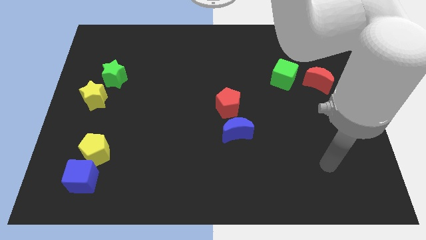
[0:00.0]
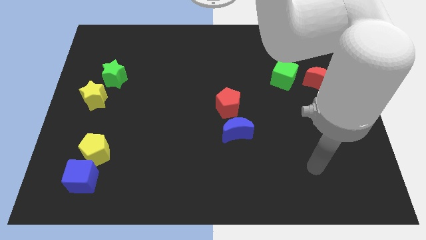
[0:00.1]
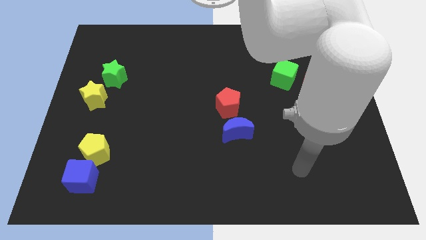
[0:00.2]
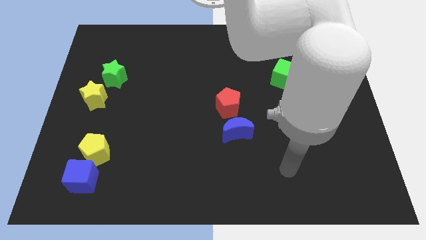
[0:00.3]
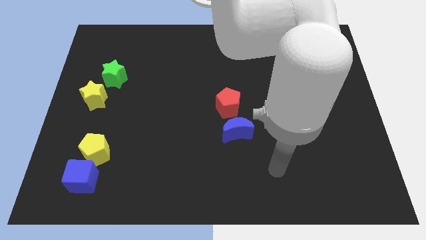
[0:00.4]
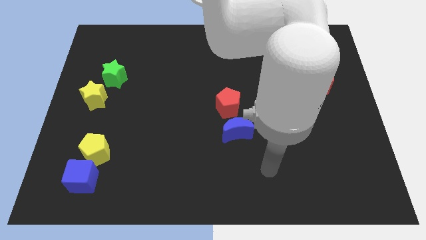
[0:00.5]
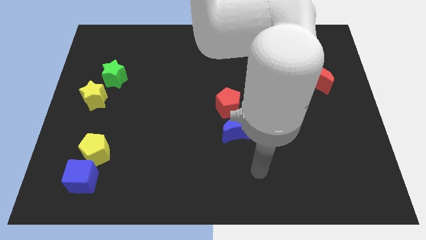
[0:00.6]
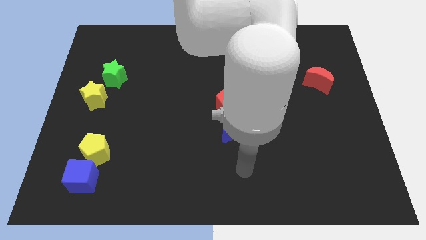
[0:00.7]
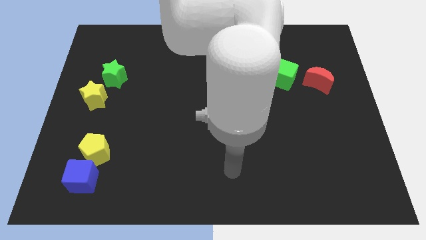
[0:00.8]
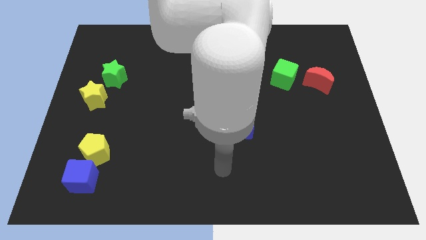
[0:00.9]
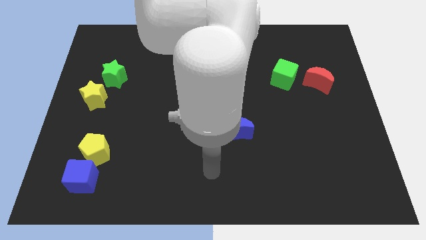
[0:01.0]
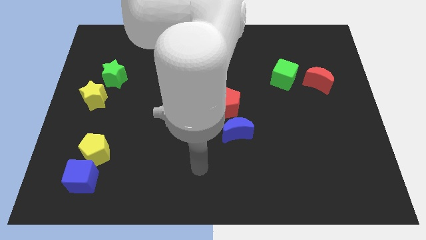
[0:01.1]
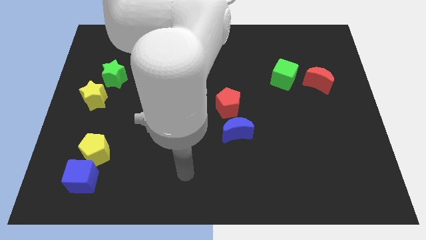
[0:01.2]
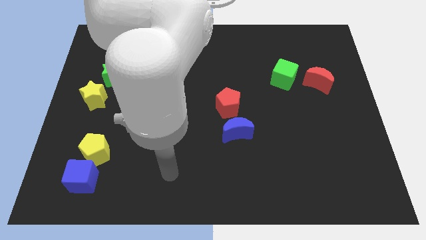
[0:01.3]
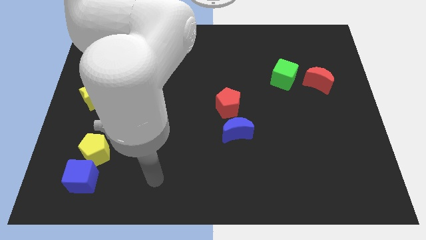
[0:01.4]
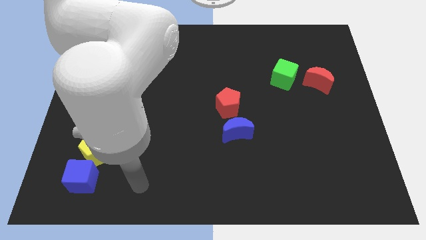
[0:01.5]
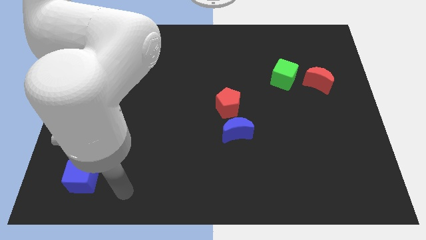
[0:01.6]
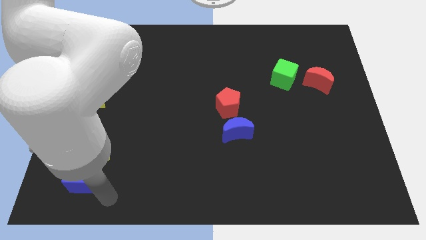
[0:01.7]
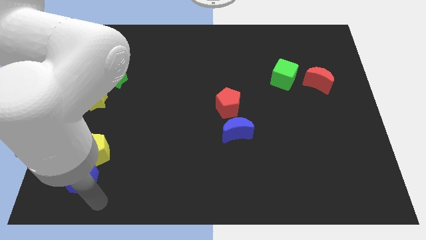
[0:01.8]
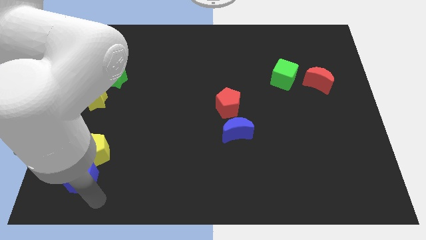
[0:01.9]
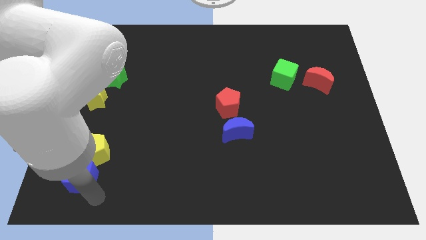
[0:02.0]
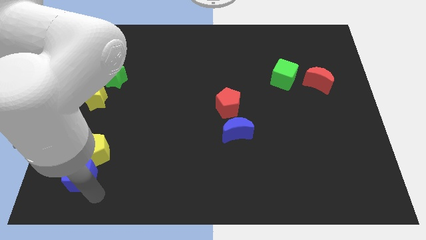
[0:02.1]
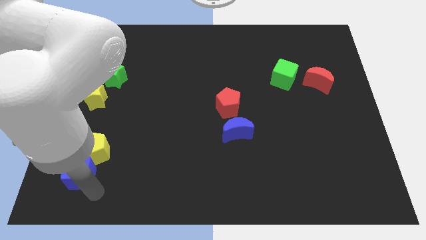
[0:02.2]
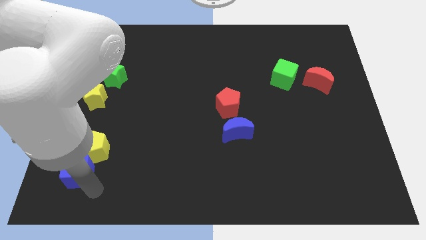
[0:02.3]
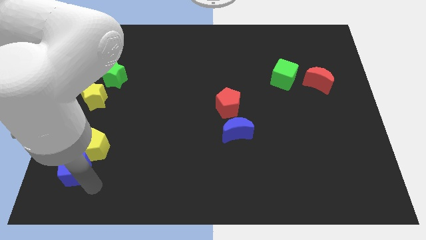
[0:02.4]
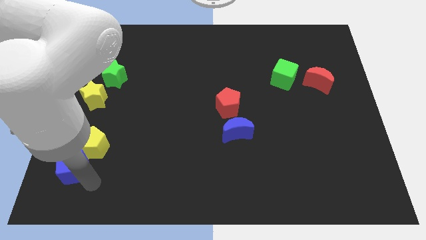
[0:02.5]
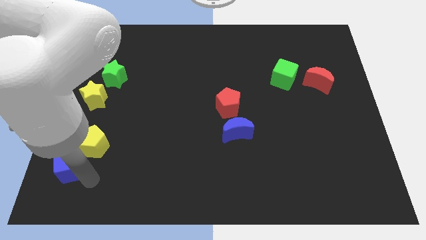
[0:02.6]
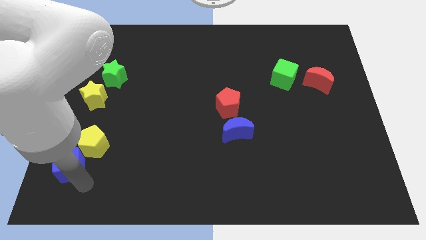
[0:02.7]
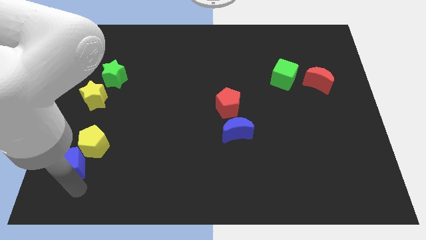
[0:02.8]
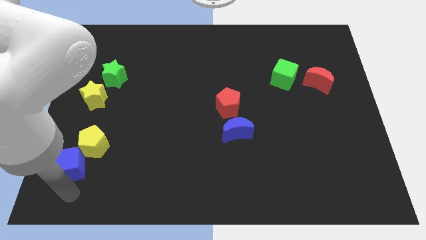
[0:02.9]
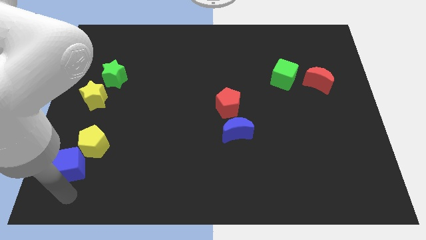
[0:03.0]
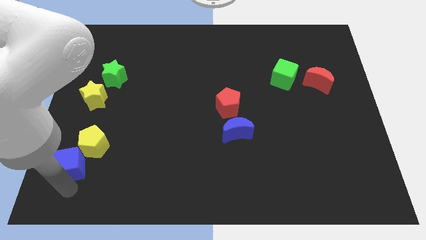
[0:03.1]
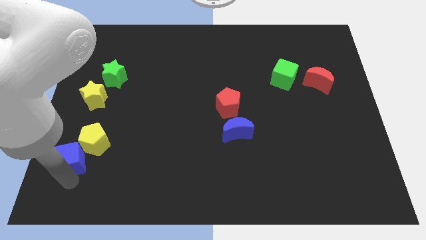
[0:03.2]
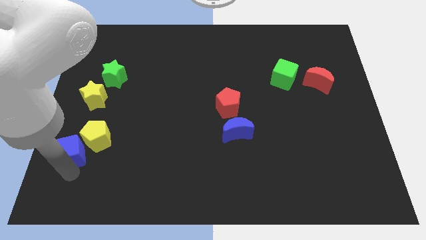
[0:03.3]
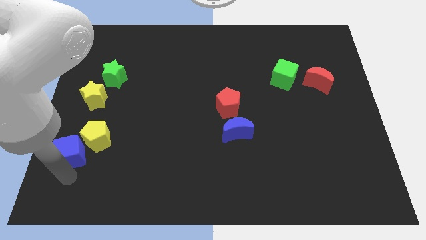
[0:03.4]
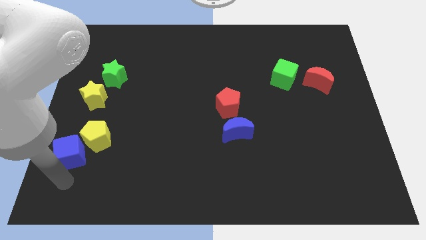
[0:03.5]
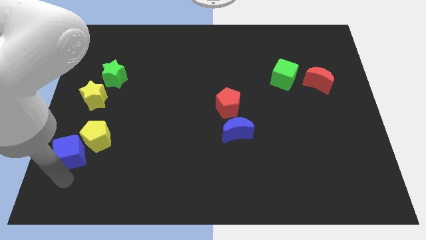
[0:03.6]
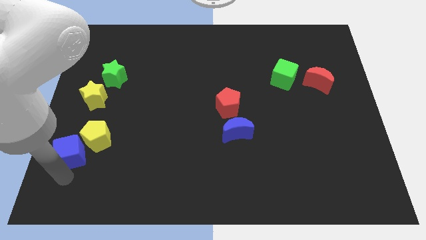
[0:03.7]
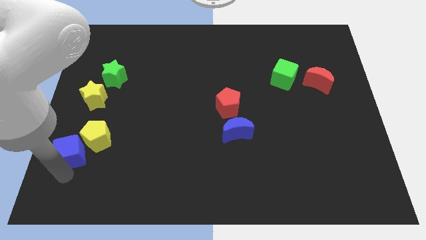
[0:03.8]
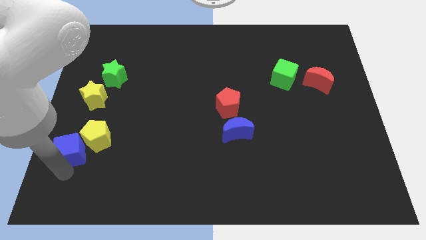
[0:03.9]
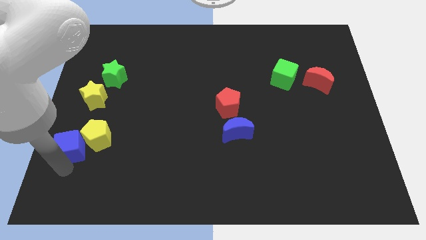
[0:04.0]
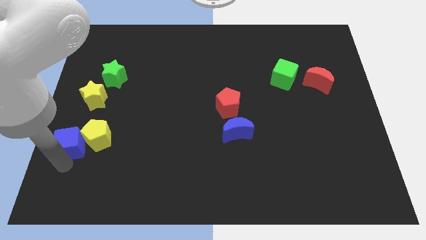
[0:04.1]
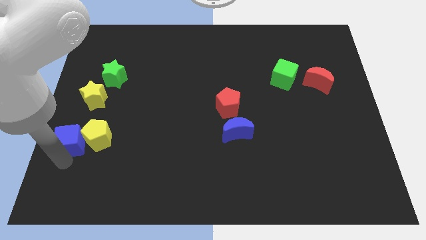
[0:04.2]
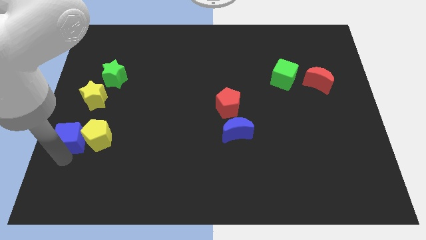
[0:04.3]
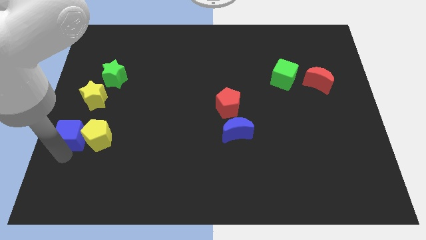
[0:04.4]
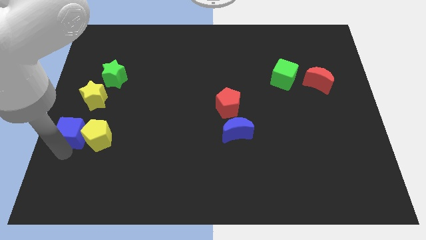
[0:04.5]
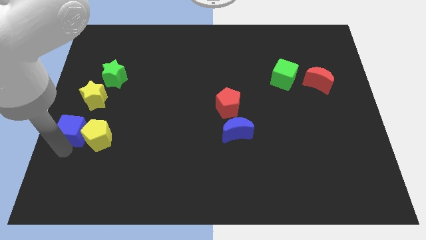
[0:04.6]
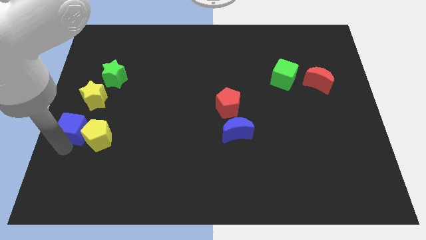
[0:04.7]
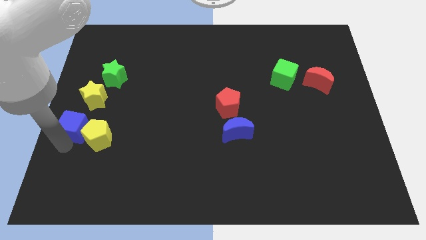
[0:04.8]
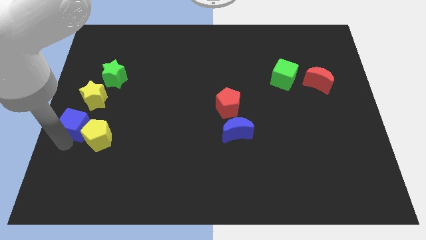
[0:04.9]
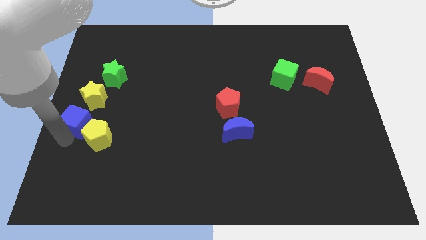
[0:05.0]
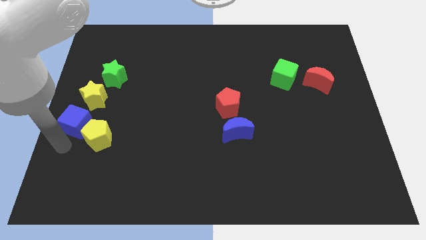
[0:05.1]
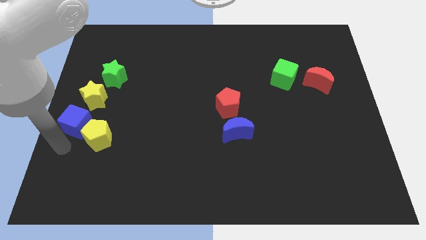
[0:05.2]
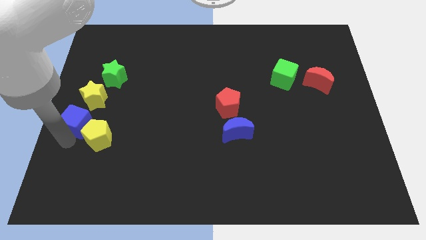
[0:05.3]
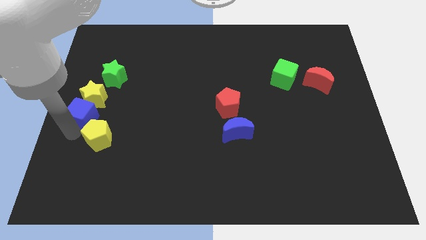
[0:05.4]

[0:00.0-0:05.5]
move the blue cube to the yellow star

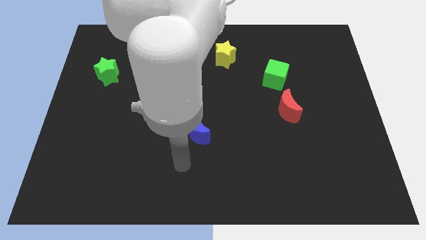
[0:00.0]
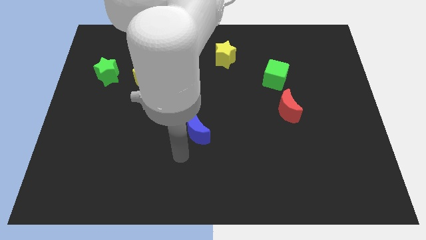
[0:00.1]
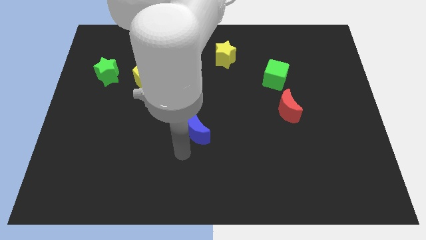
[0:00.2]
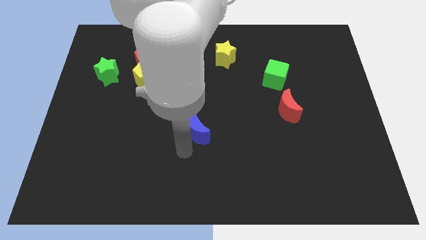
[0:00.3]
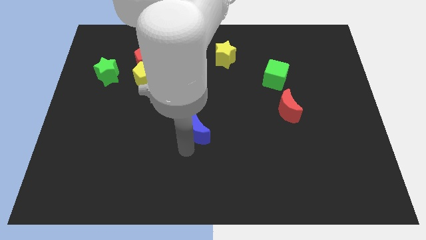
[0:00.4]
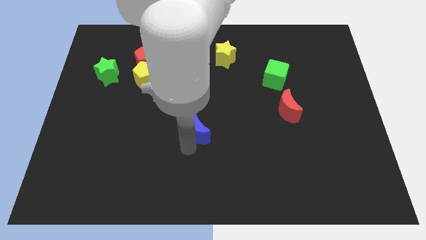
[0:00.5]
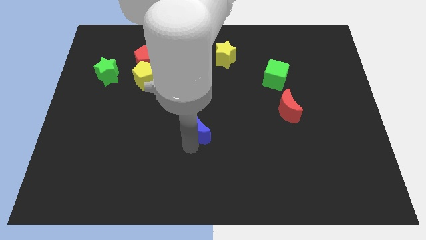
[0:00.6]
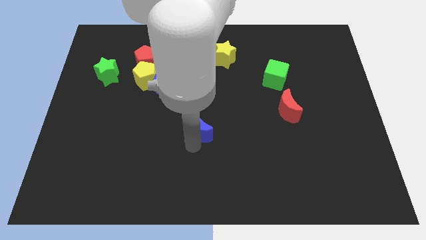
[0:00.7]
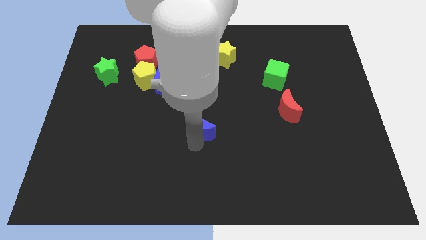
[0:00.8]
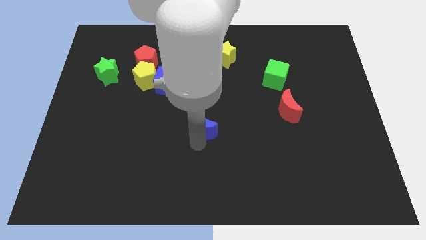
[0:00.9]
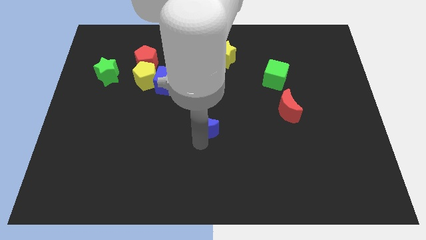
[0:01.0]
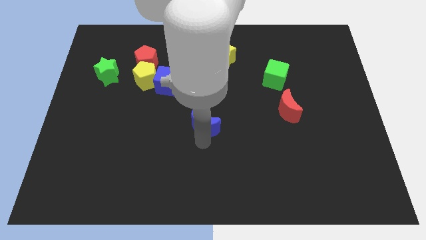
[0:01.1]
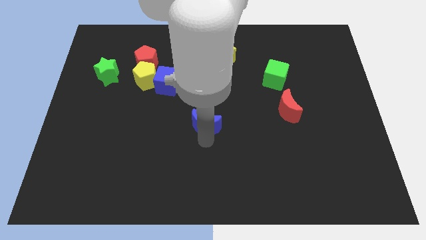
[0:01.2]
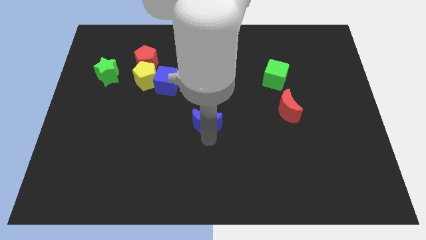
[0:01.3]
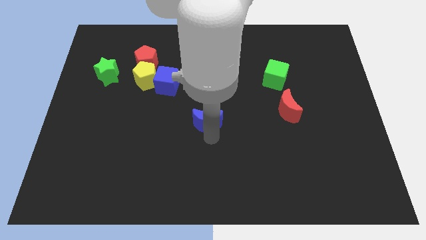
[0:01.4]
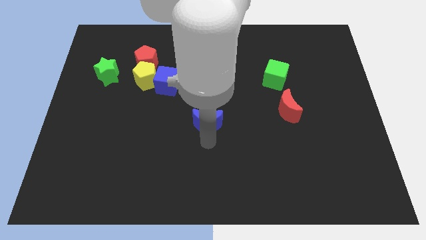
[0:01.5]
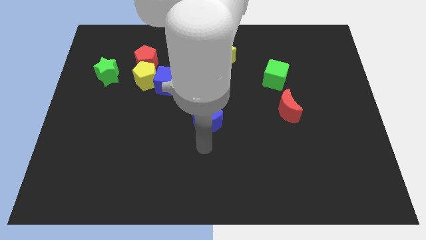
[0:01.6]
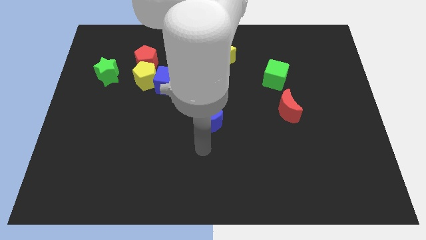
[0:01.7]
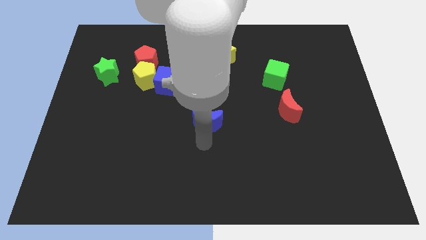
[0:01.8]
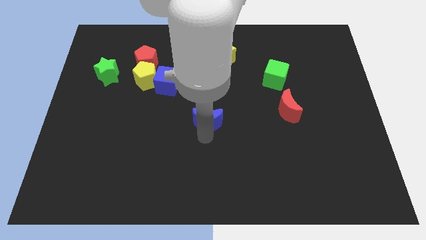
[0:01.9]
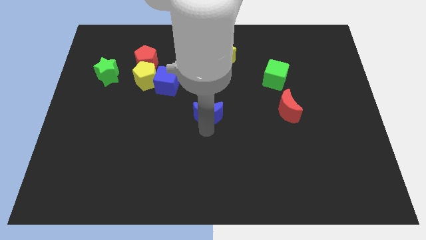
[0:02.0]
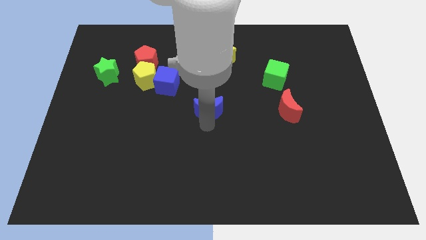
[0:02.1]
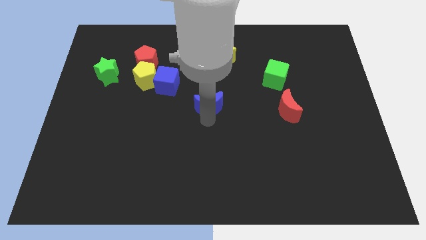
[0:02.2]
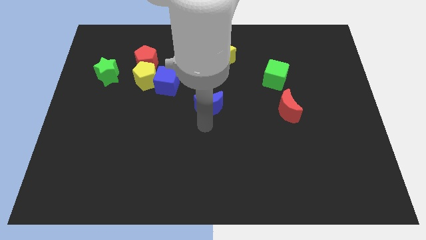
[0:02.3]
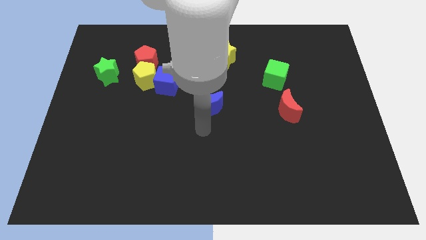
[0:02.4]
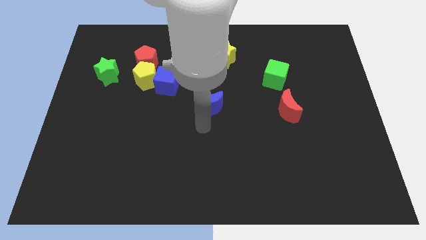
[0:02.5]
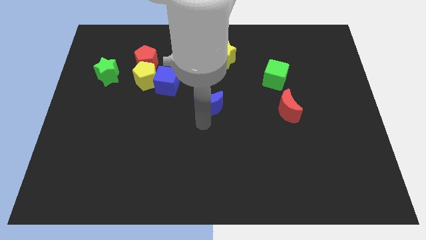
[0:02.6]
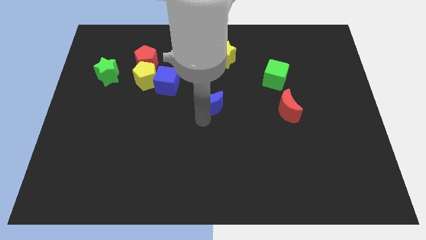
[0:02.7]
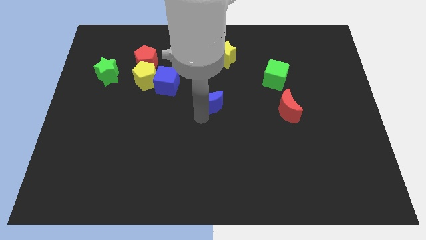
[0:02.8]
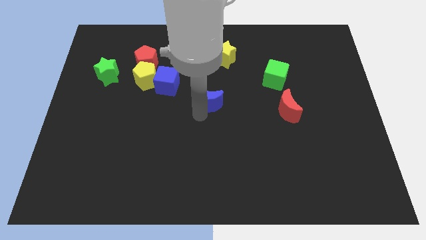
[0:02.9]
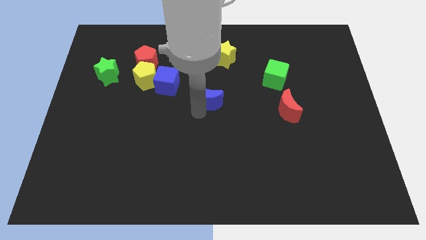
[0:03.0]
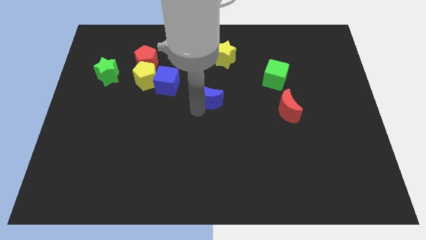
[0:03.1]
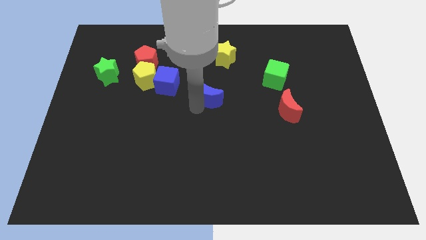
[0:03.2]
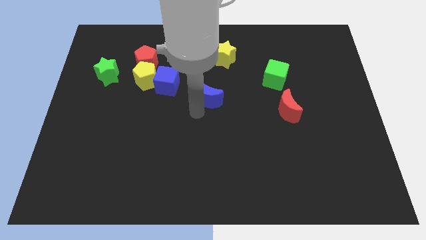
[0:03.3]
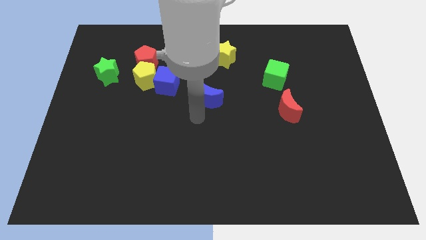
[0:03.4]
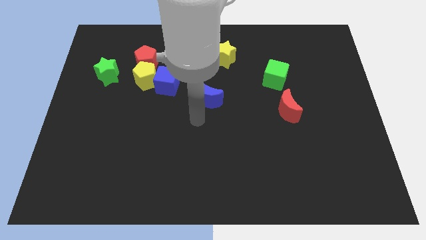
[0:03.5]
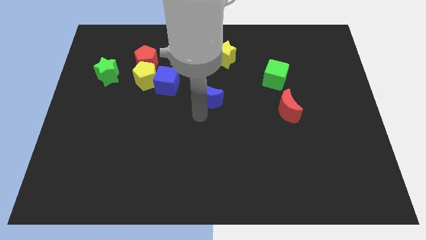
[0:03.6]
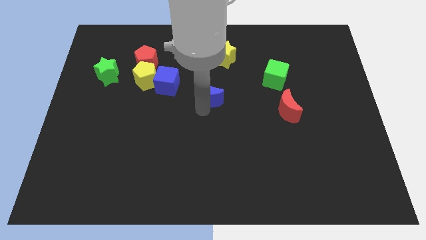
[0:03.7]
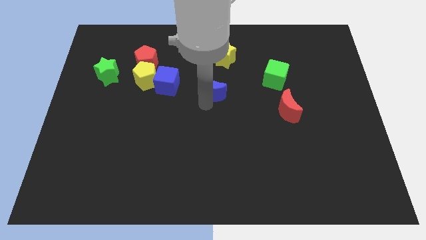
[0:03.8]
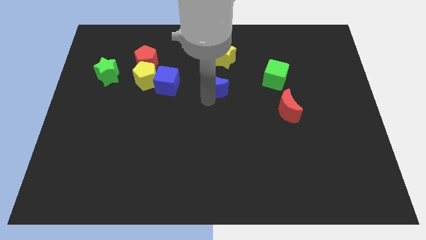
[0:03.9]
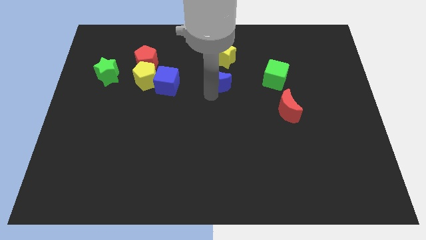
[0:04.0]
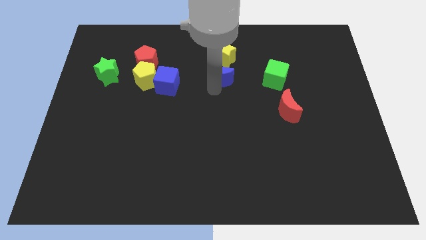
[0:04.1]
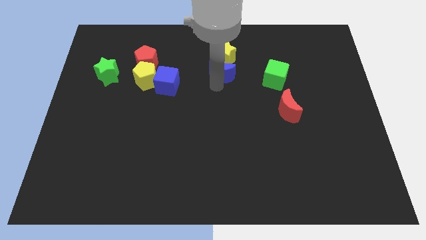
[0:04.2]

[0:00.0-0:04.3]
move the blue moon next to the yellow star
